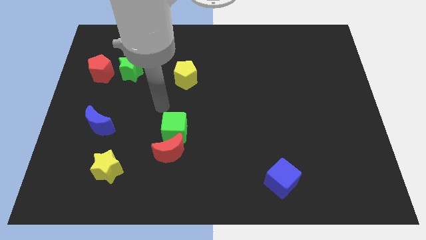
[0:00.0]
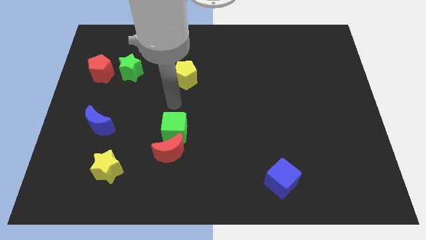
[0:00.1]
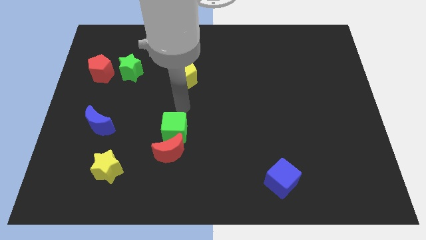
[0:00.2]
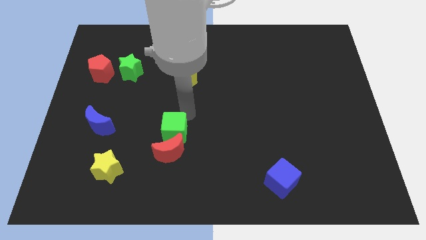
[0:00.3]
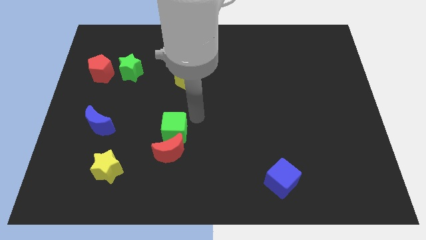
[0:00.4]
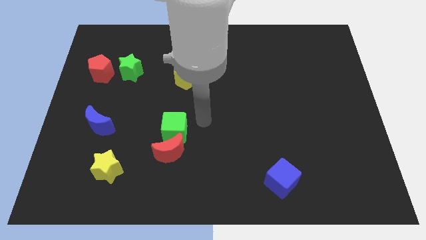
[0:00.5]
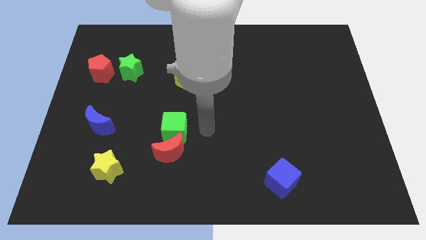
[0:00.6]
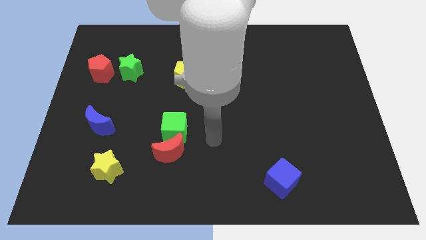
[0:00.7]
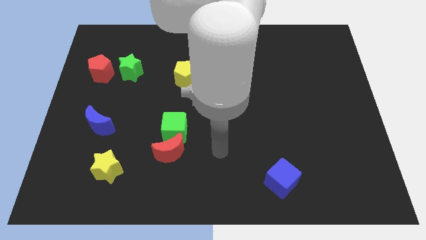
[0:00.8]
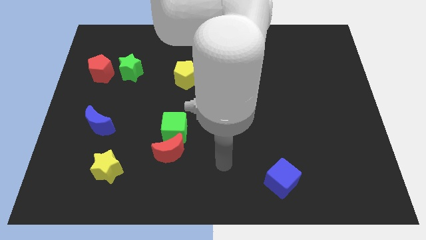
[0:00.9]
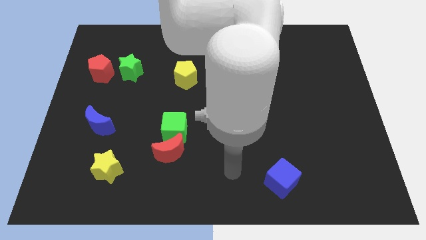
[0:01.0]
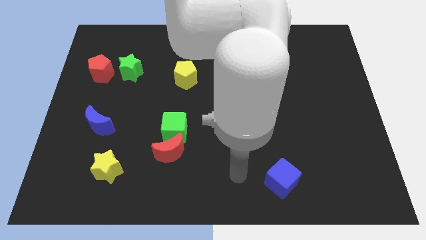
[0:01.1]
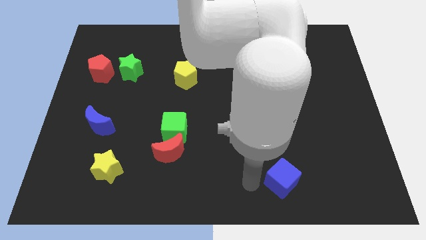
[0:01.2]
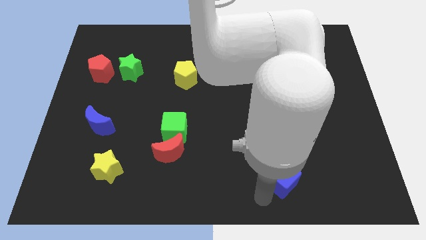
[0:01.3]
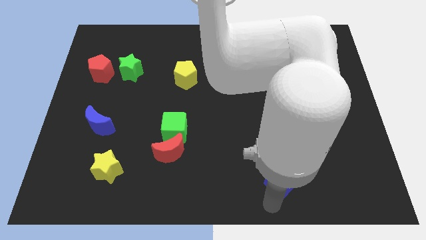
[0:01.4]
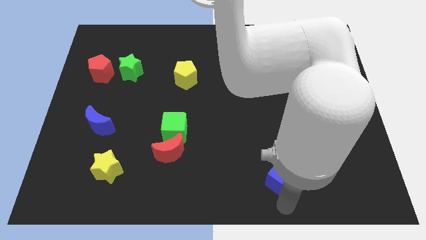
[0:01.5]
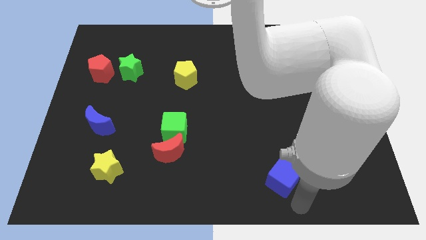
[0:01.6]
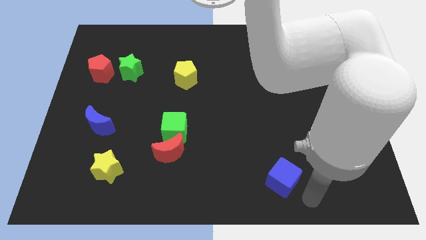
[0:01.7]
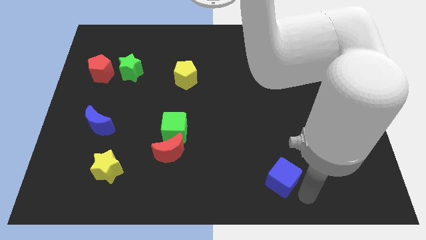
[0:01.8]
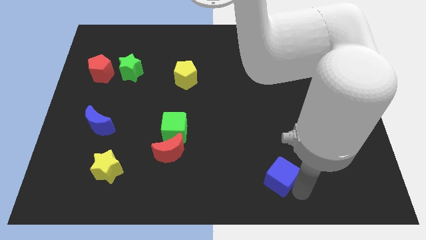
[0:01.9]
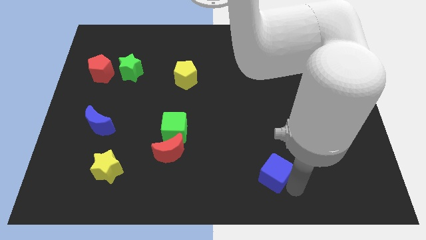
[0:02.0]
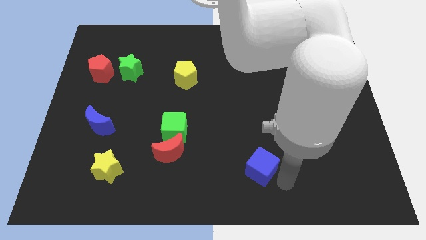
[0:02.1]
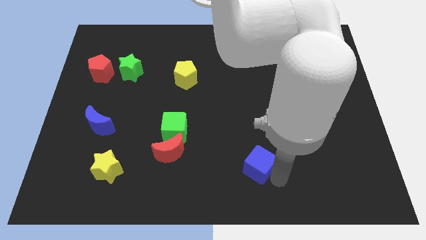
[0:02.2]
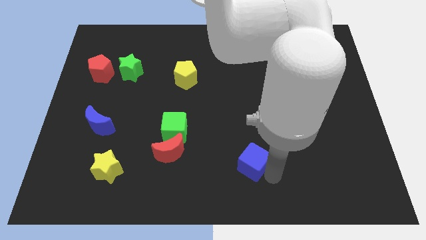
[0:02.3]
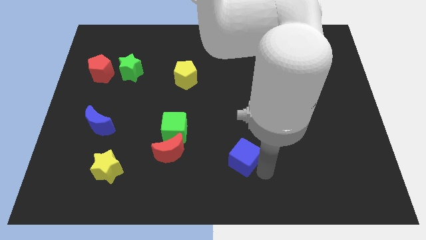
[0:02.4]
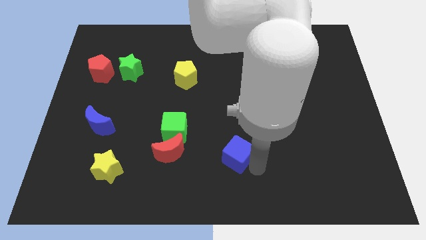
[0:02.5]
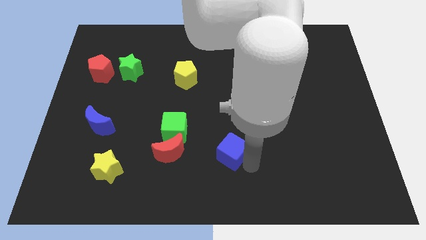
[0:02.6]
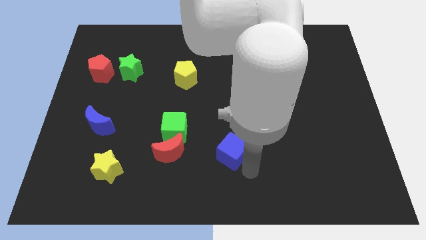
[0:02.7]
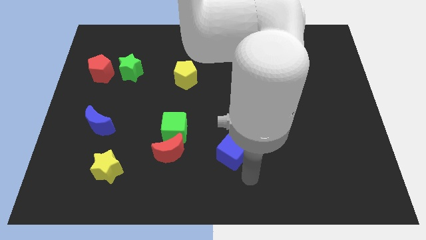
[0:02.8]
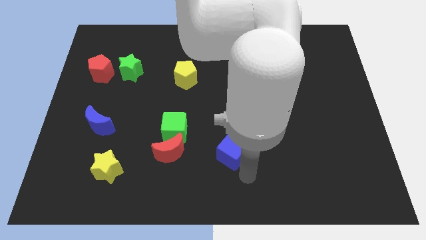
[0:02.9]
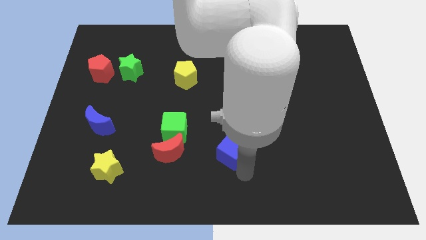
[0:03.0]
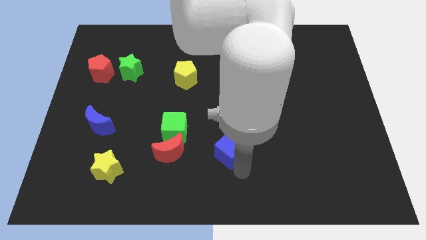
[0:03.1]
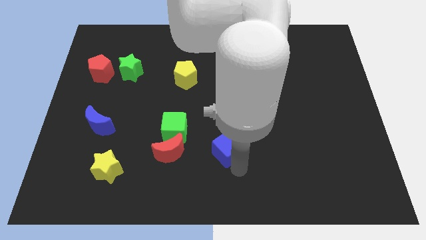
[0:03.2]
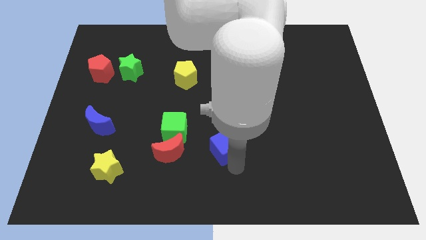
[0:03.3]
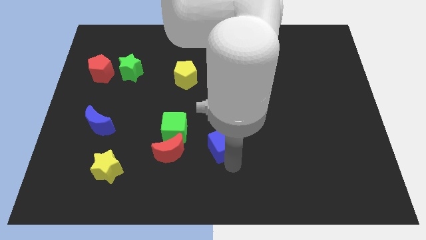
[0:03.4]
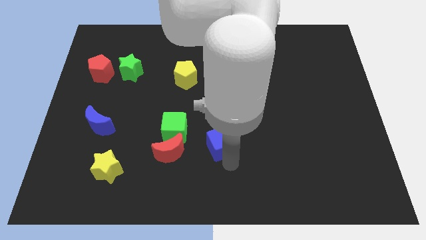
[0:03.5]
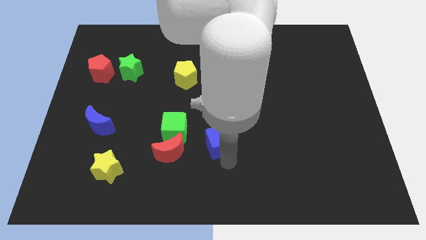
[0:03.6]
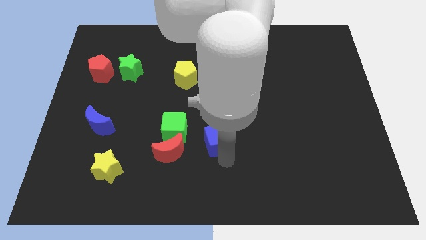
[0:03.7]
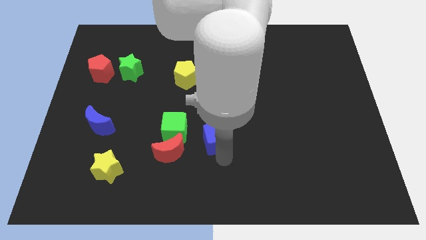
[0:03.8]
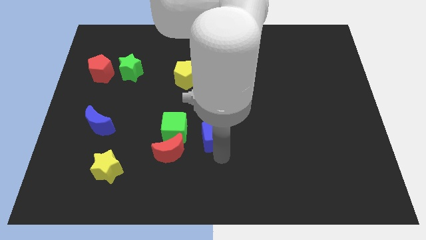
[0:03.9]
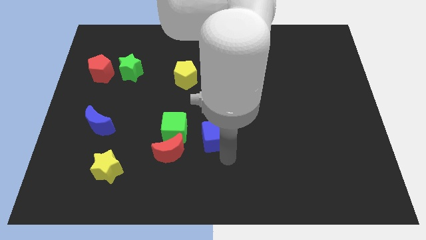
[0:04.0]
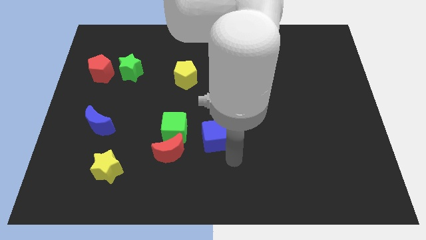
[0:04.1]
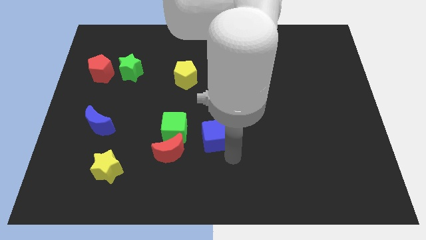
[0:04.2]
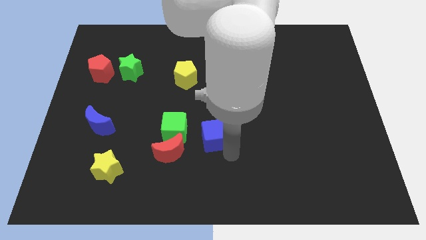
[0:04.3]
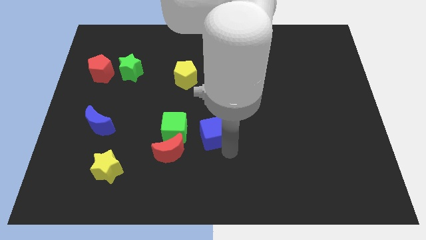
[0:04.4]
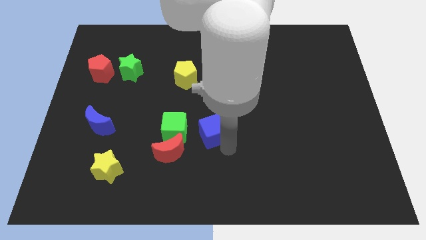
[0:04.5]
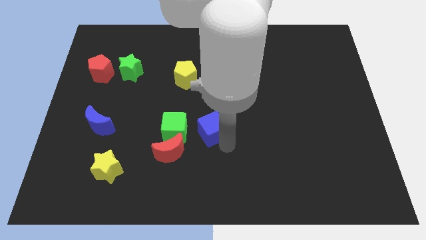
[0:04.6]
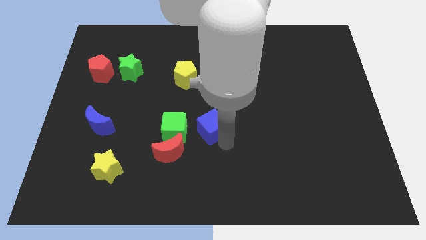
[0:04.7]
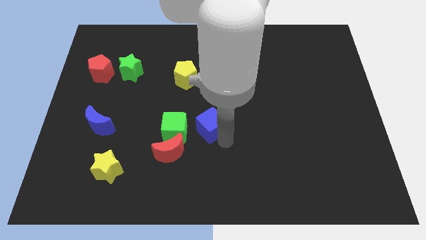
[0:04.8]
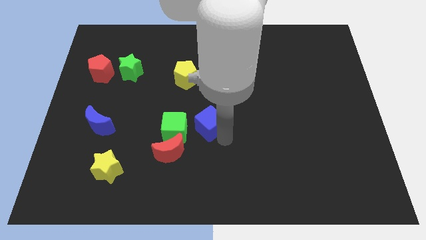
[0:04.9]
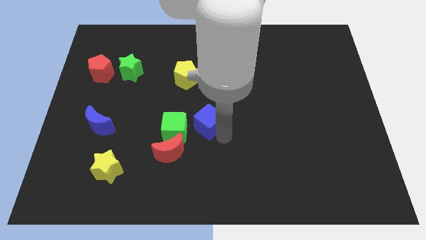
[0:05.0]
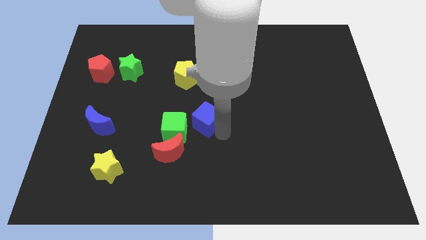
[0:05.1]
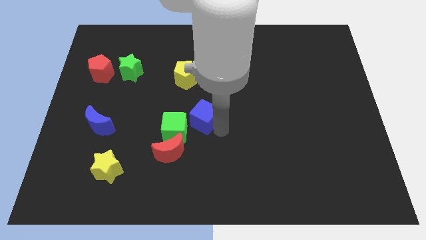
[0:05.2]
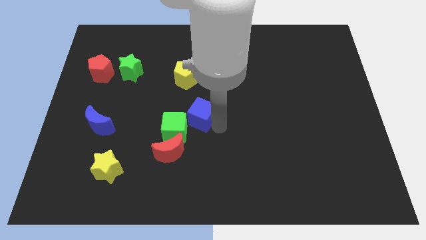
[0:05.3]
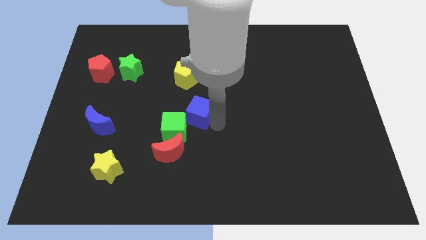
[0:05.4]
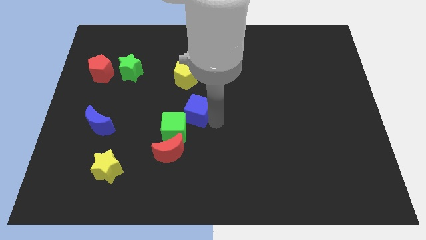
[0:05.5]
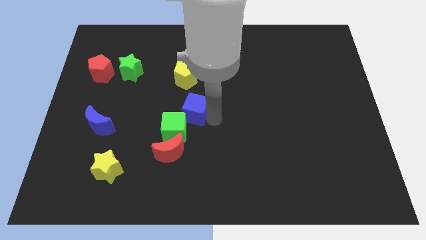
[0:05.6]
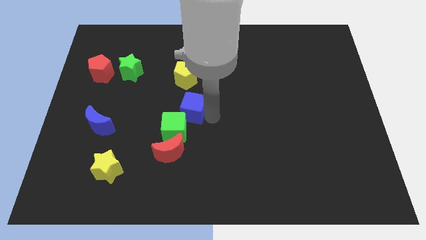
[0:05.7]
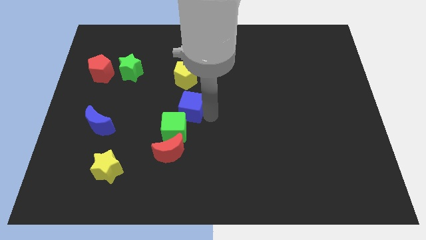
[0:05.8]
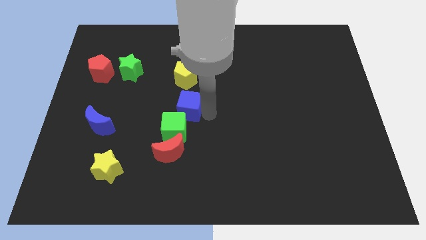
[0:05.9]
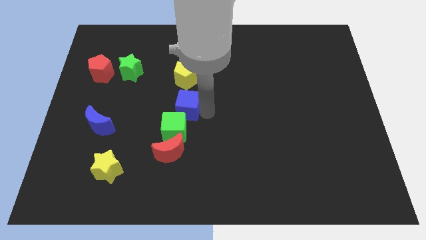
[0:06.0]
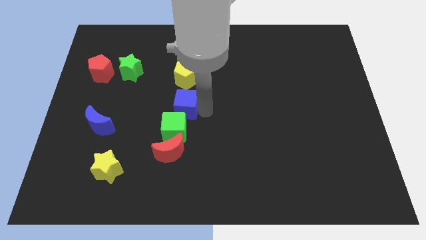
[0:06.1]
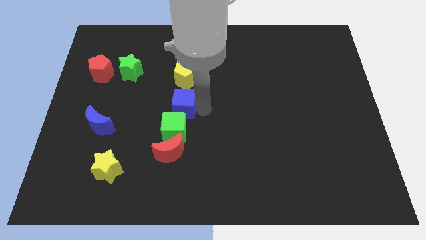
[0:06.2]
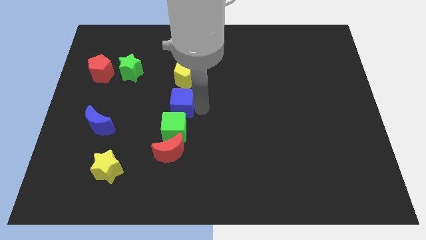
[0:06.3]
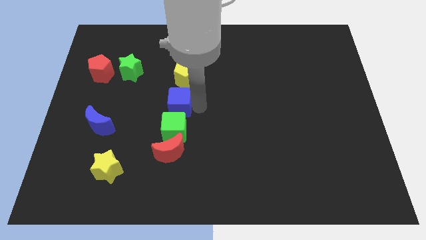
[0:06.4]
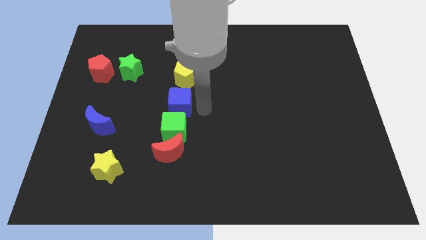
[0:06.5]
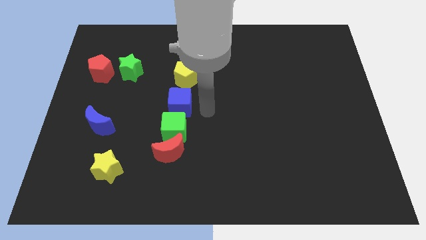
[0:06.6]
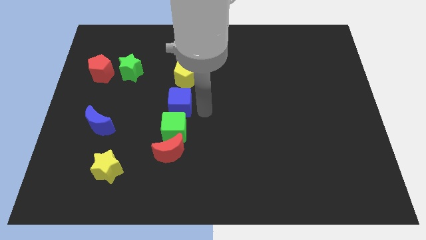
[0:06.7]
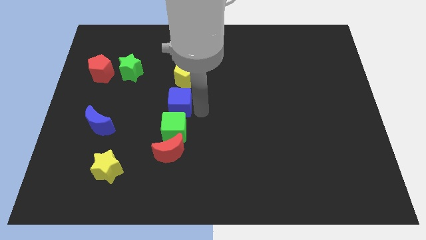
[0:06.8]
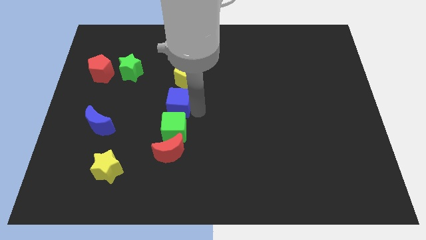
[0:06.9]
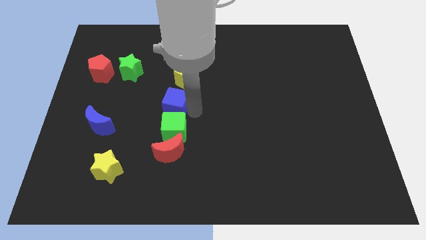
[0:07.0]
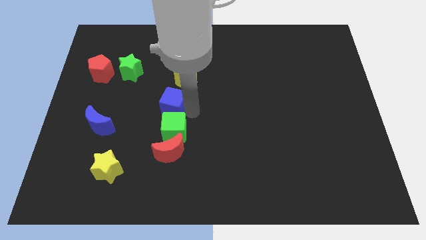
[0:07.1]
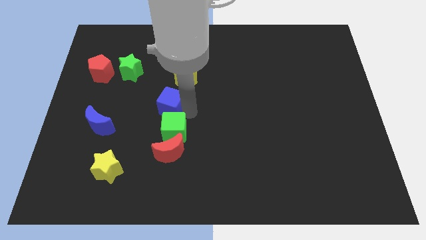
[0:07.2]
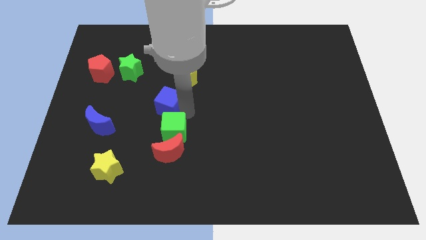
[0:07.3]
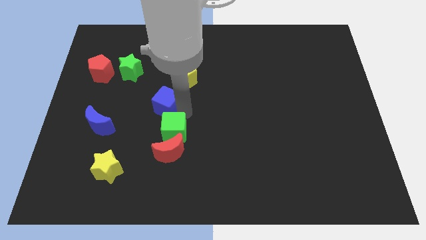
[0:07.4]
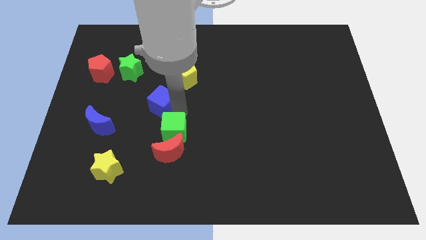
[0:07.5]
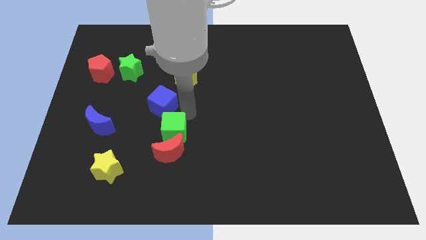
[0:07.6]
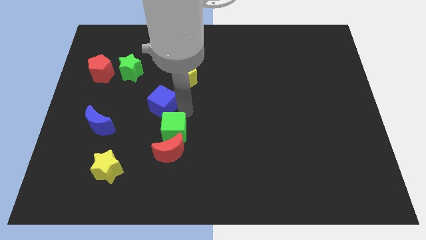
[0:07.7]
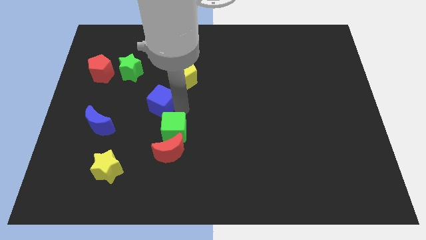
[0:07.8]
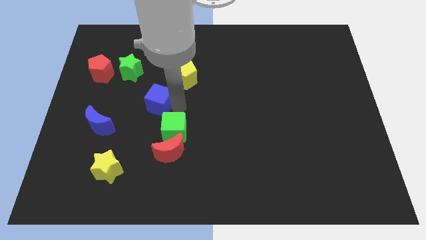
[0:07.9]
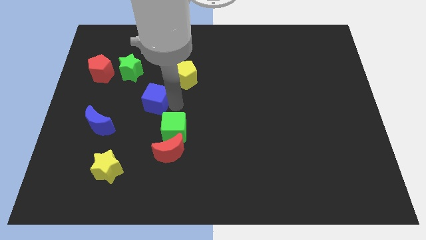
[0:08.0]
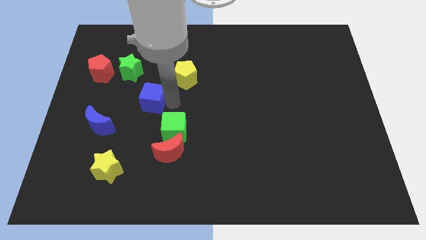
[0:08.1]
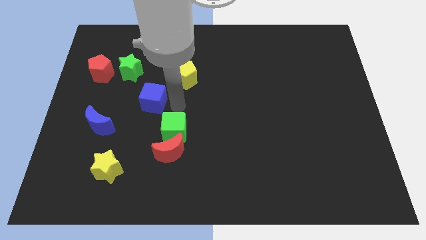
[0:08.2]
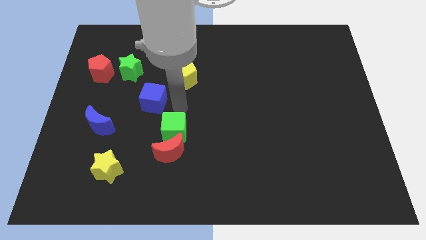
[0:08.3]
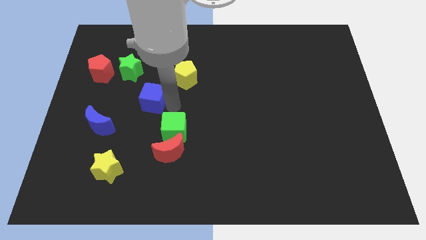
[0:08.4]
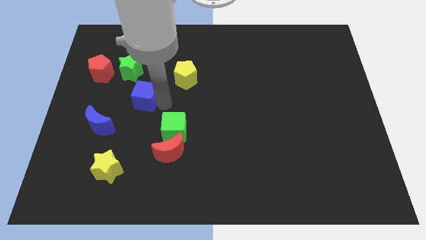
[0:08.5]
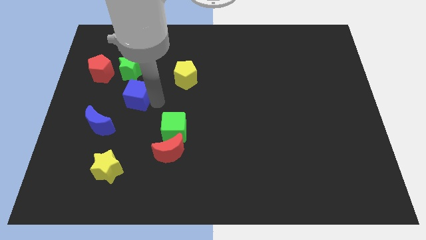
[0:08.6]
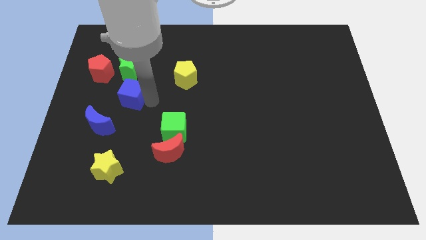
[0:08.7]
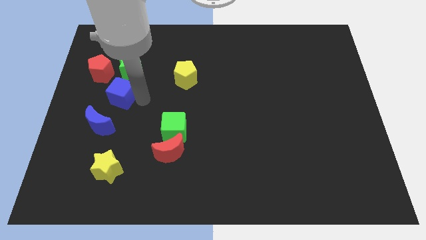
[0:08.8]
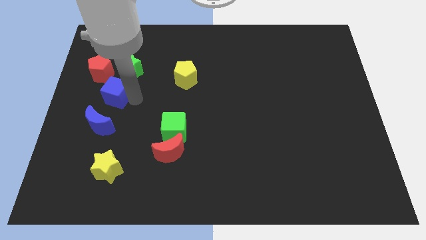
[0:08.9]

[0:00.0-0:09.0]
put the blue cube to the bottom left of the green star
